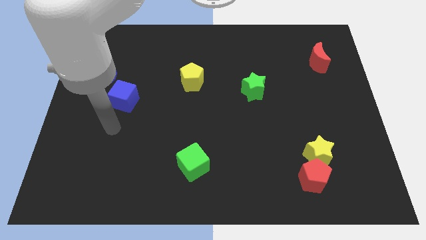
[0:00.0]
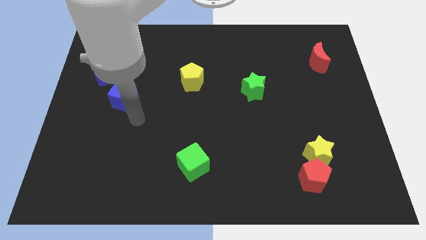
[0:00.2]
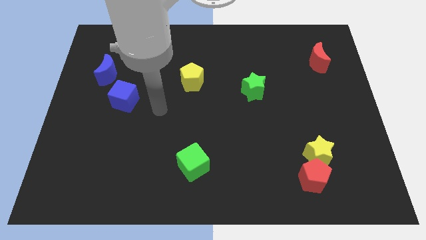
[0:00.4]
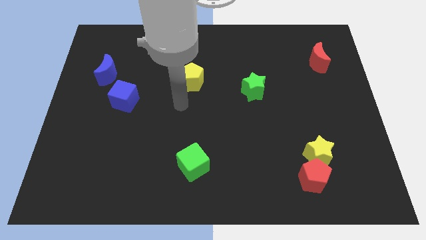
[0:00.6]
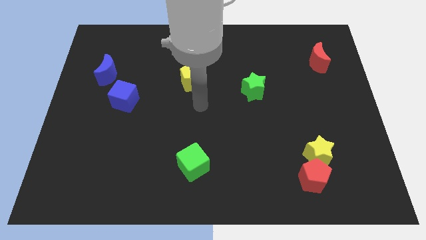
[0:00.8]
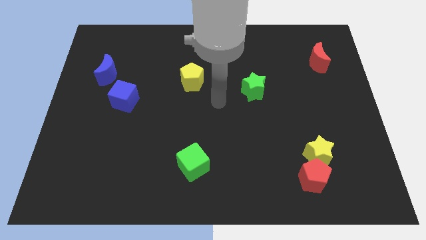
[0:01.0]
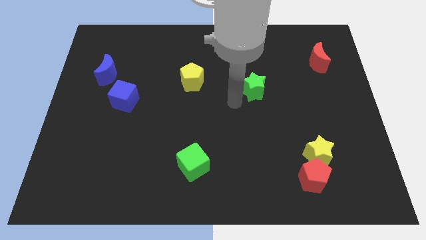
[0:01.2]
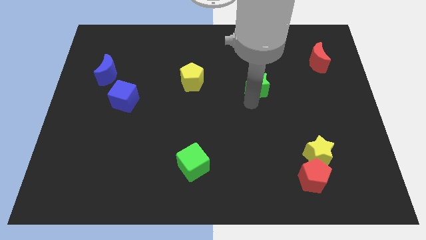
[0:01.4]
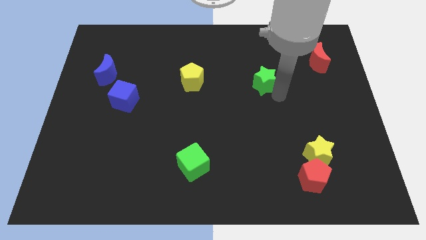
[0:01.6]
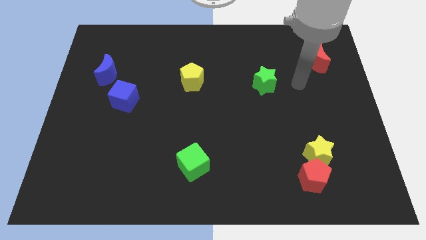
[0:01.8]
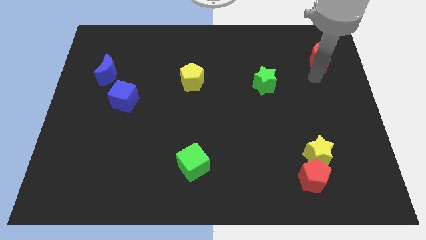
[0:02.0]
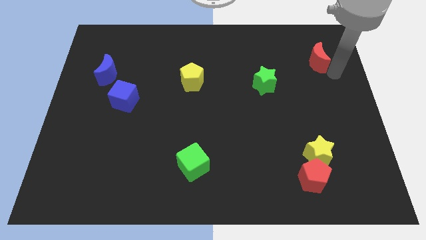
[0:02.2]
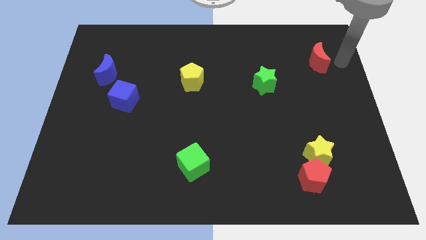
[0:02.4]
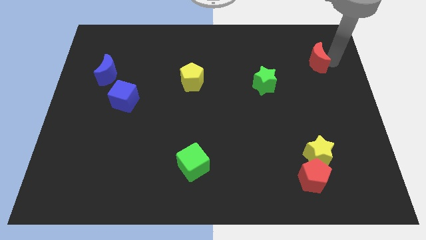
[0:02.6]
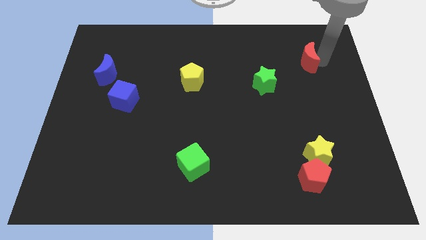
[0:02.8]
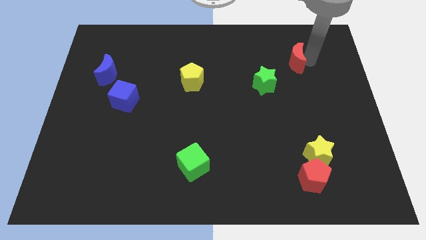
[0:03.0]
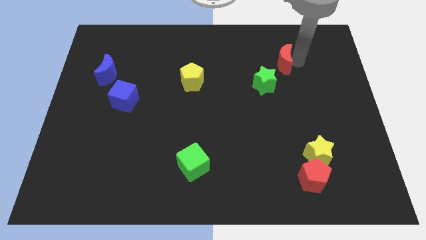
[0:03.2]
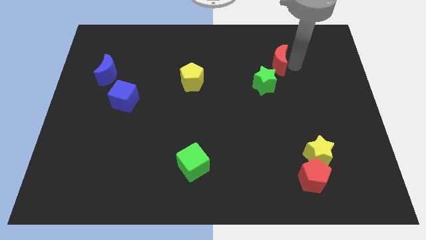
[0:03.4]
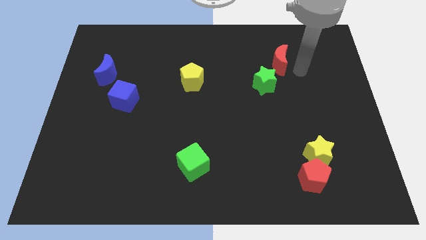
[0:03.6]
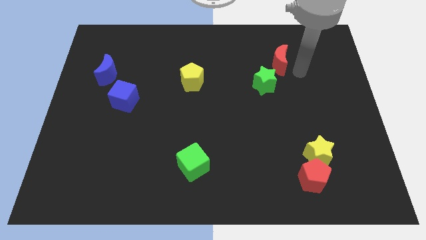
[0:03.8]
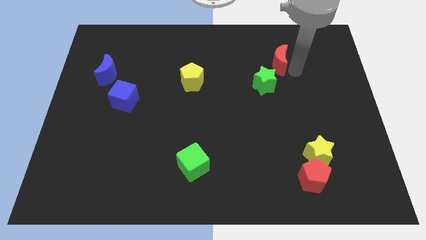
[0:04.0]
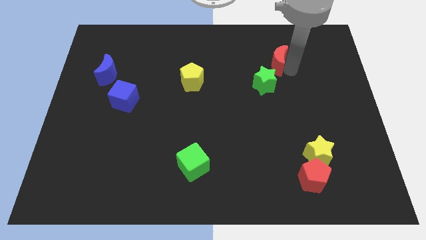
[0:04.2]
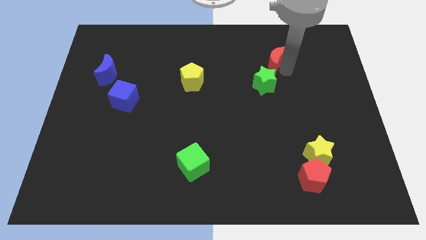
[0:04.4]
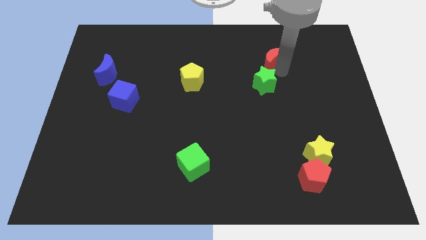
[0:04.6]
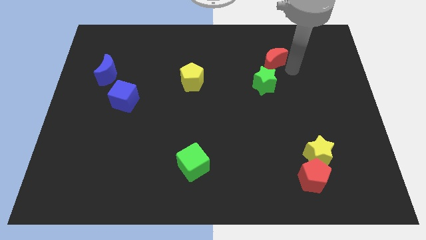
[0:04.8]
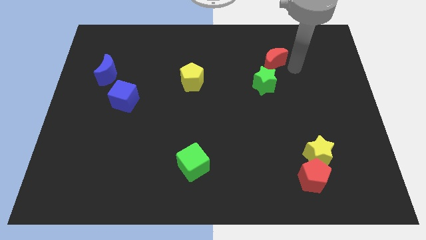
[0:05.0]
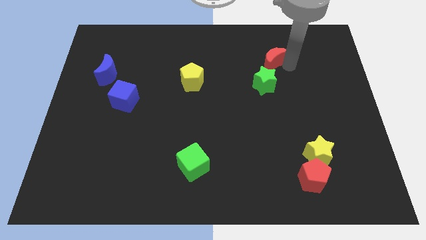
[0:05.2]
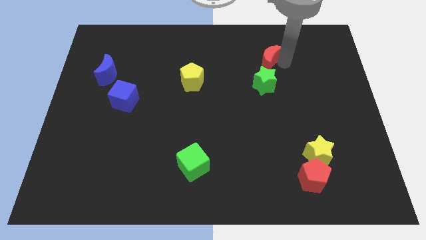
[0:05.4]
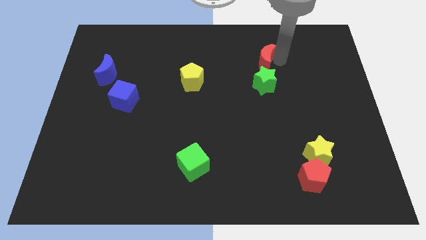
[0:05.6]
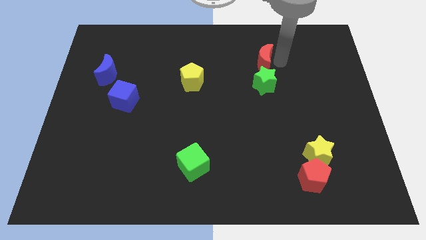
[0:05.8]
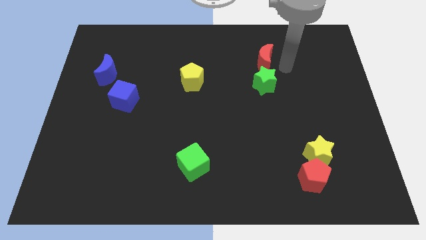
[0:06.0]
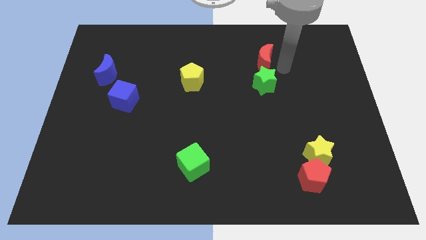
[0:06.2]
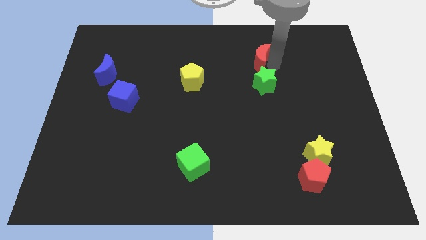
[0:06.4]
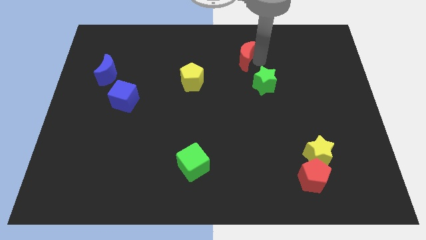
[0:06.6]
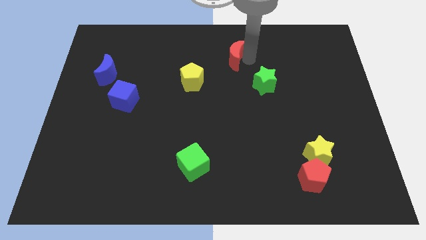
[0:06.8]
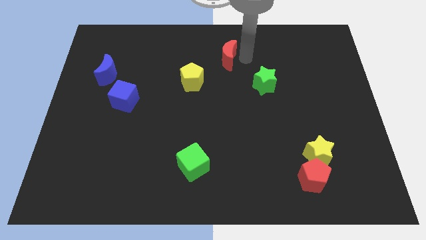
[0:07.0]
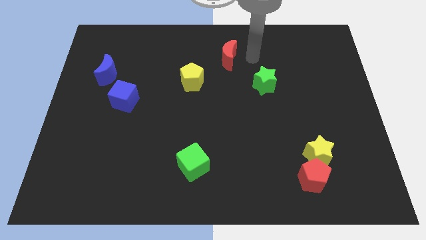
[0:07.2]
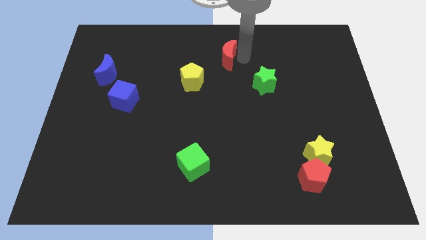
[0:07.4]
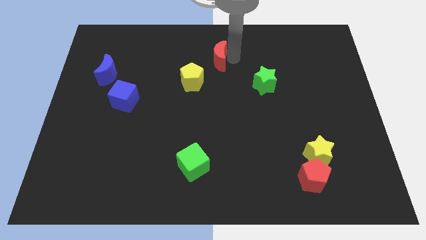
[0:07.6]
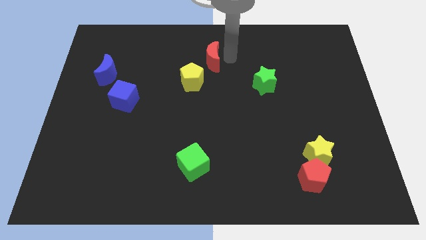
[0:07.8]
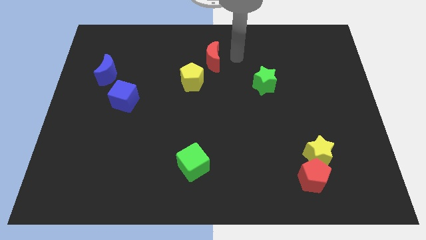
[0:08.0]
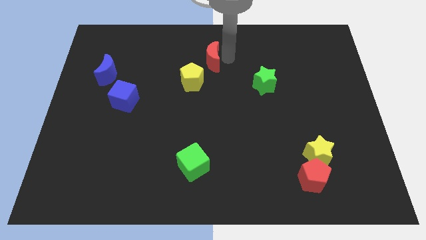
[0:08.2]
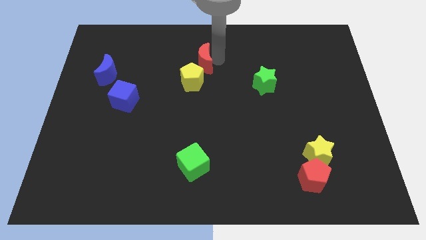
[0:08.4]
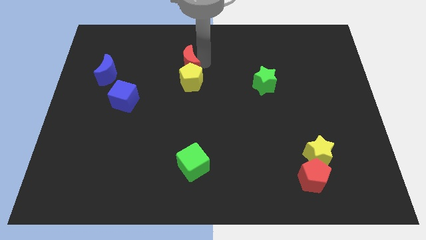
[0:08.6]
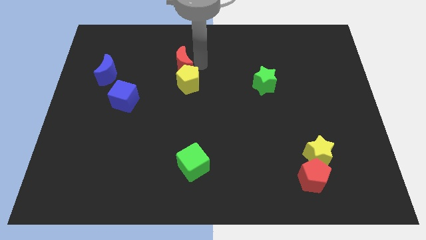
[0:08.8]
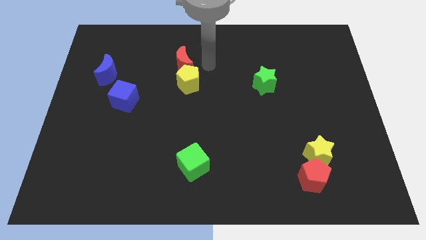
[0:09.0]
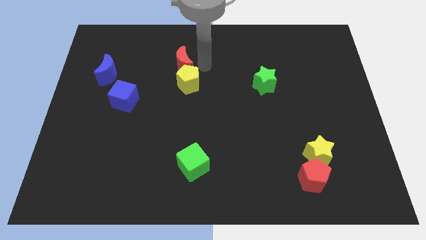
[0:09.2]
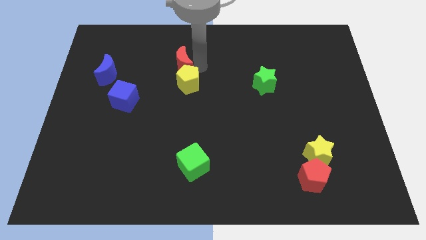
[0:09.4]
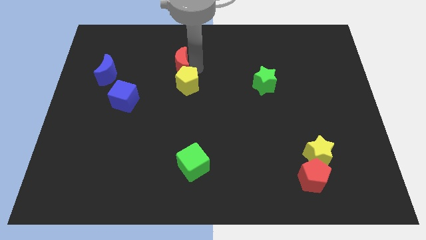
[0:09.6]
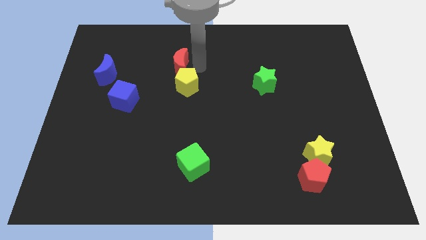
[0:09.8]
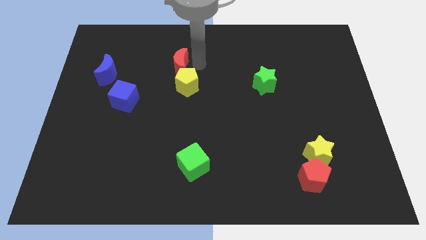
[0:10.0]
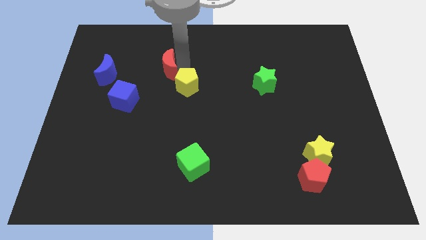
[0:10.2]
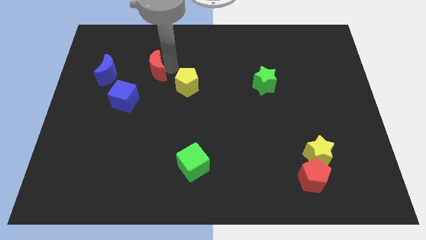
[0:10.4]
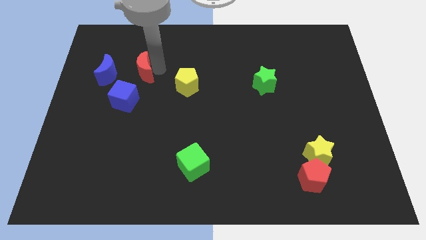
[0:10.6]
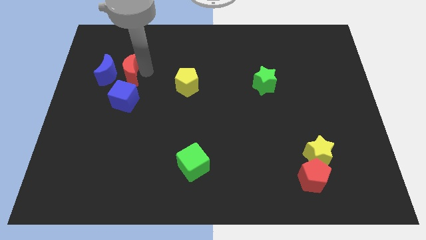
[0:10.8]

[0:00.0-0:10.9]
move the red moon close to the blue moon

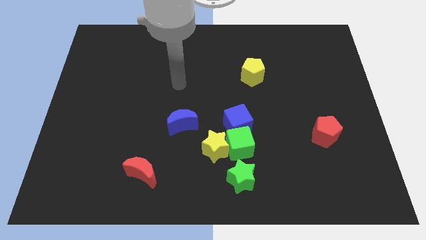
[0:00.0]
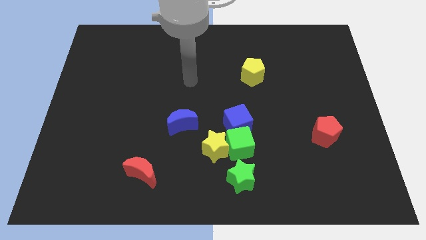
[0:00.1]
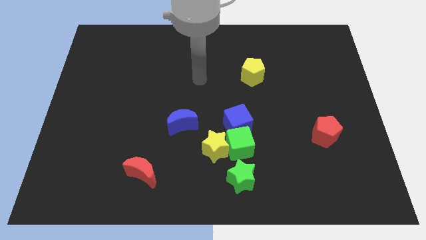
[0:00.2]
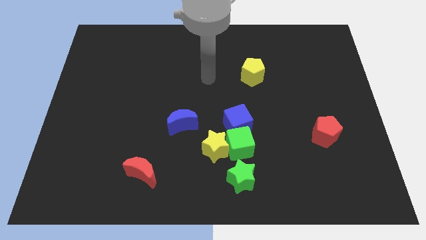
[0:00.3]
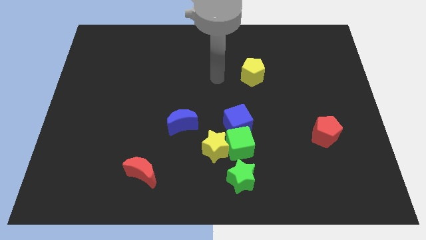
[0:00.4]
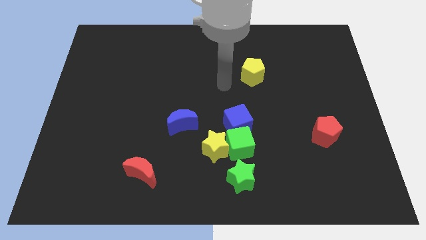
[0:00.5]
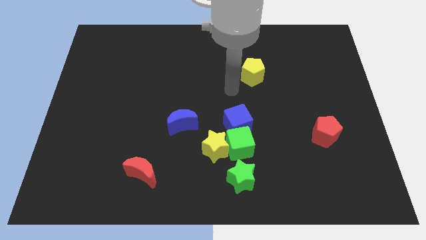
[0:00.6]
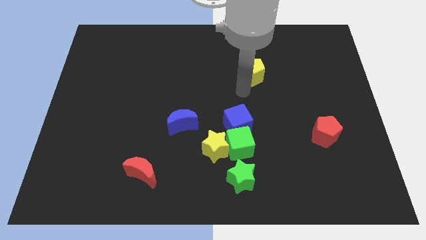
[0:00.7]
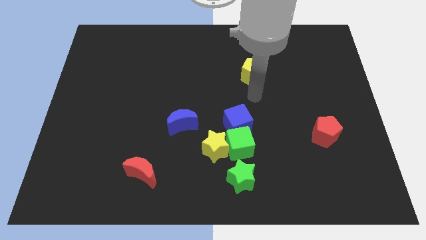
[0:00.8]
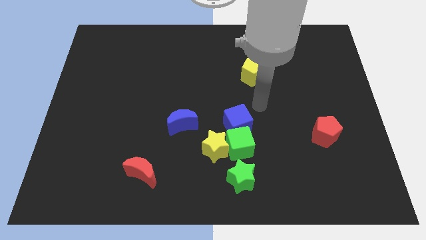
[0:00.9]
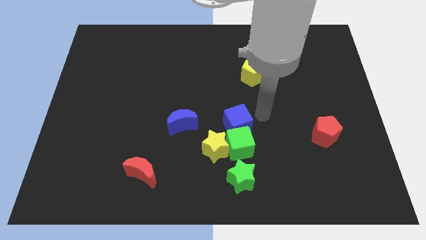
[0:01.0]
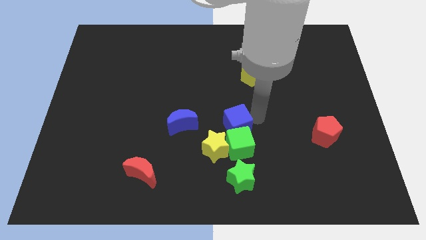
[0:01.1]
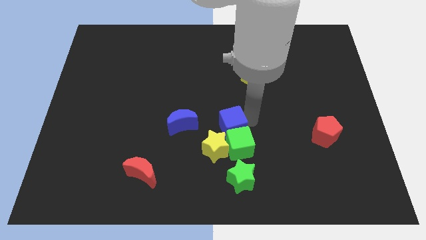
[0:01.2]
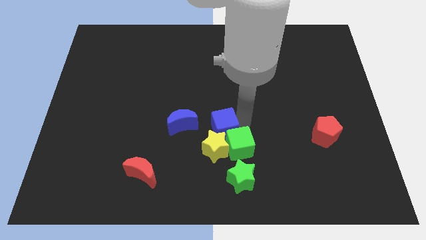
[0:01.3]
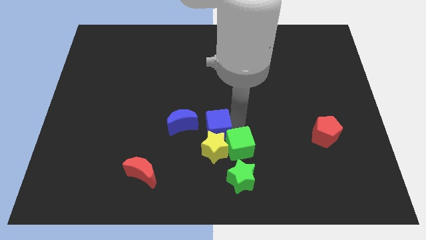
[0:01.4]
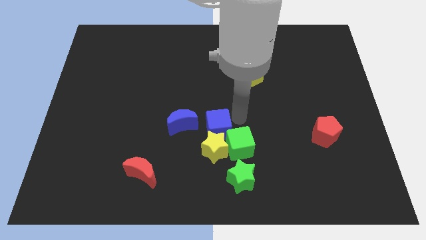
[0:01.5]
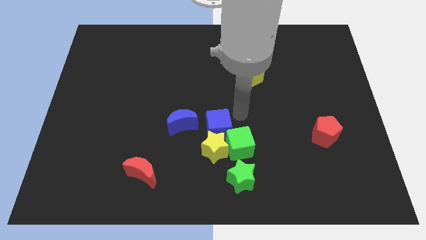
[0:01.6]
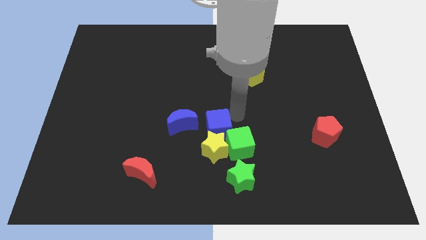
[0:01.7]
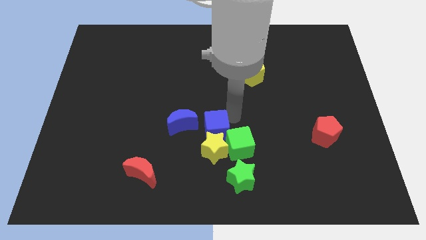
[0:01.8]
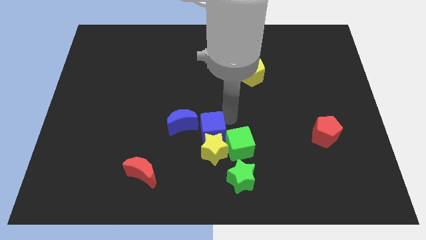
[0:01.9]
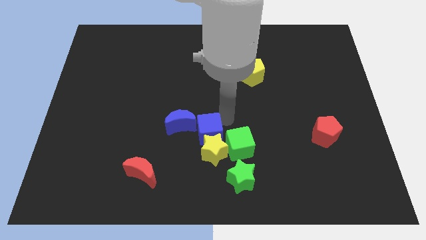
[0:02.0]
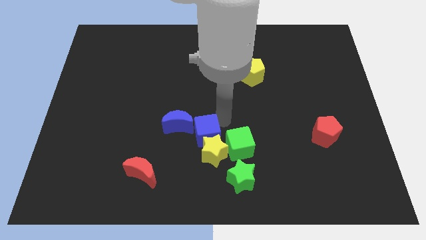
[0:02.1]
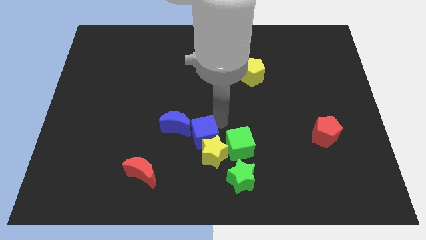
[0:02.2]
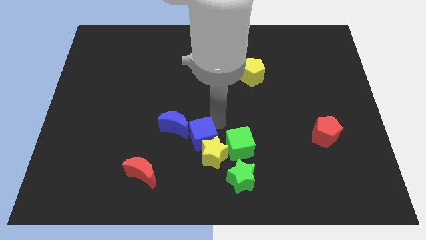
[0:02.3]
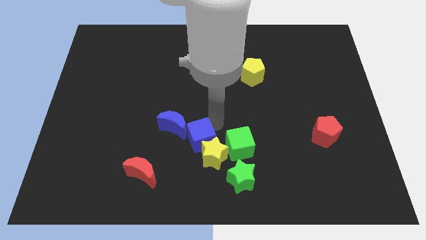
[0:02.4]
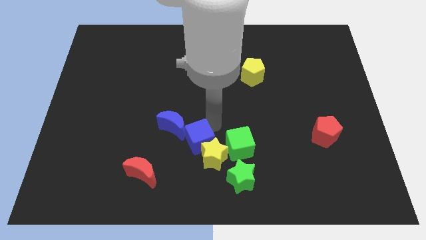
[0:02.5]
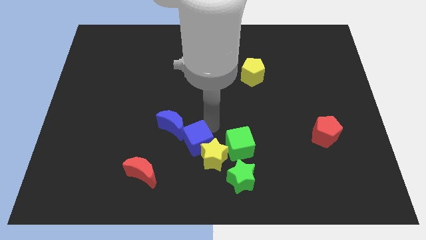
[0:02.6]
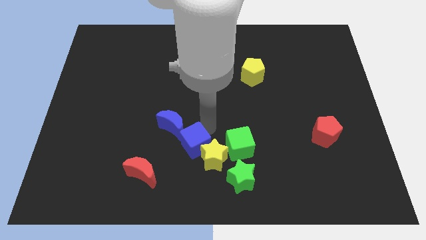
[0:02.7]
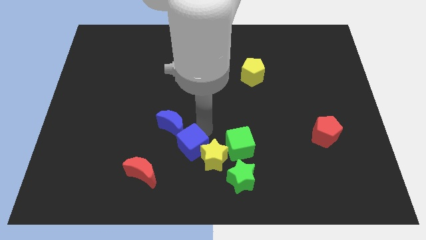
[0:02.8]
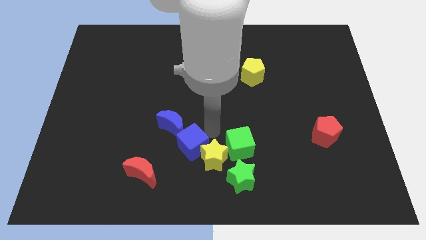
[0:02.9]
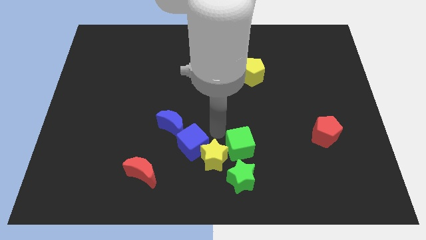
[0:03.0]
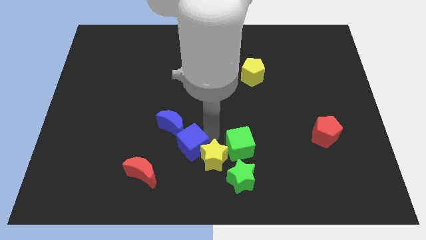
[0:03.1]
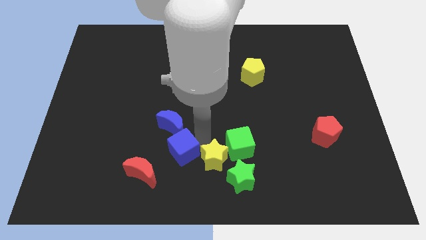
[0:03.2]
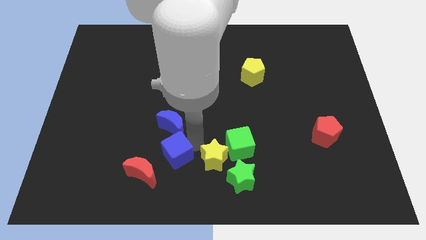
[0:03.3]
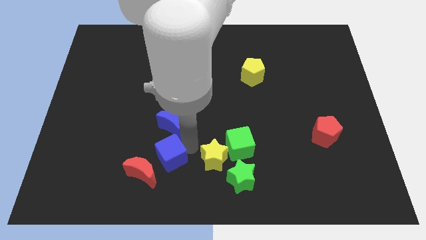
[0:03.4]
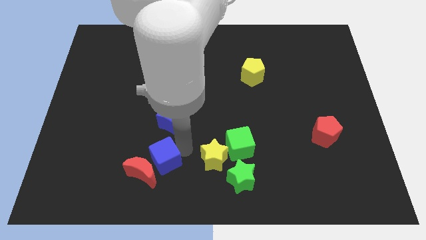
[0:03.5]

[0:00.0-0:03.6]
slide the blue cube to the red moon
